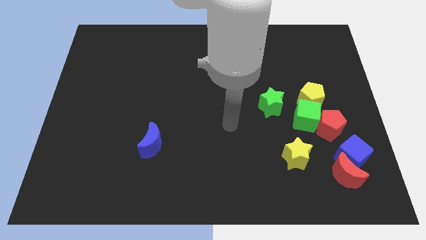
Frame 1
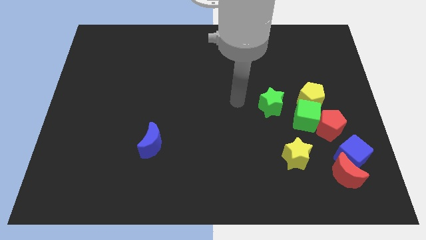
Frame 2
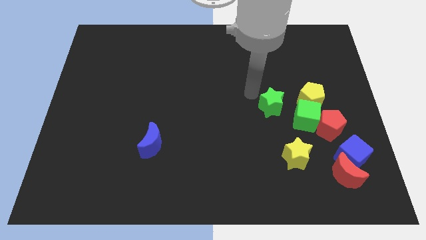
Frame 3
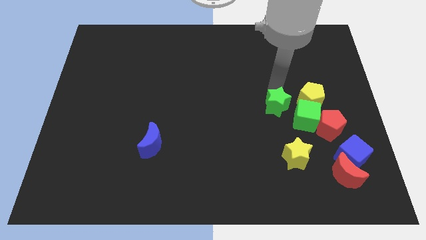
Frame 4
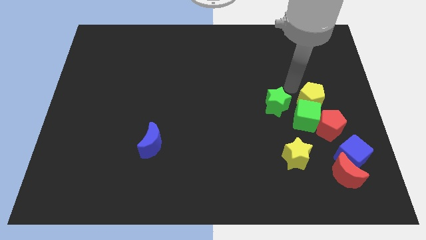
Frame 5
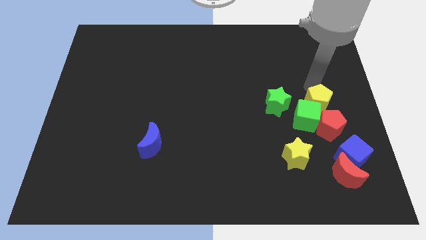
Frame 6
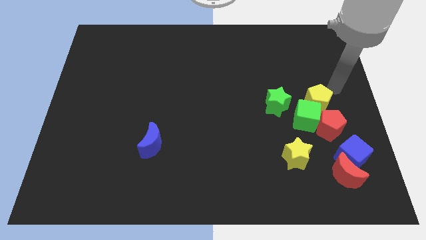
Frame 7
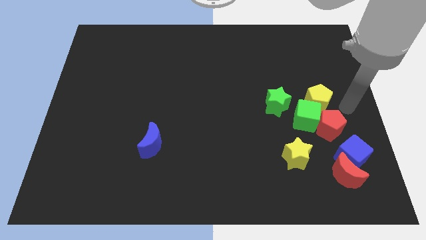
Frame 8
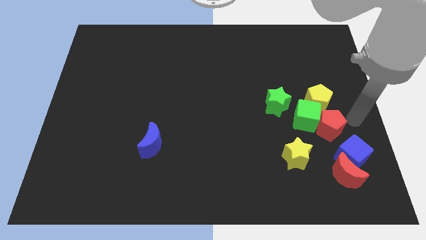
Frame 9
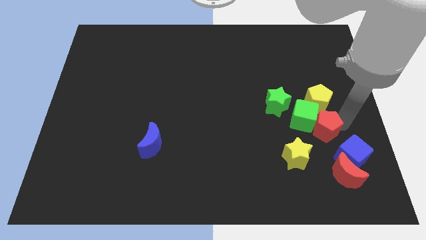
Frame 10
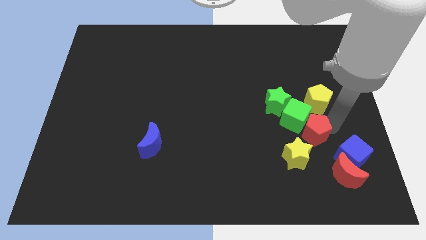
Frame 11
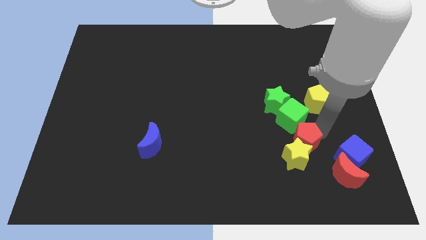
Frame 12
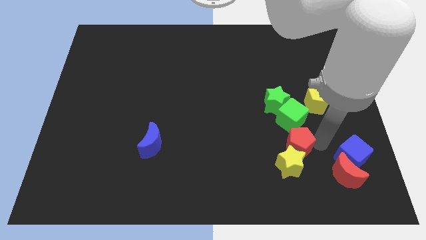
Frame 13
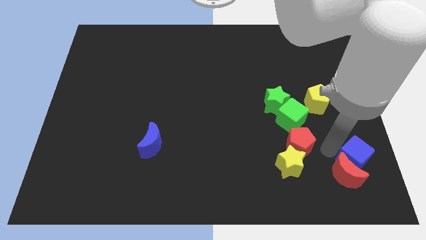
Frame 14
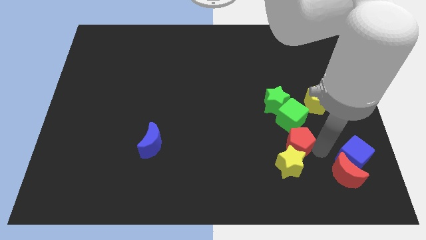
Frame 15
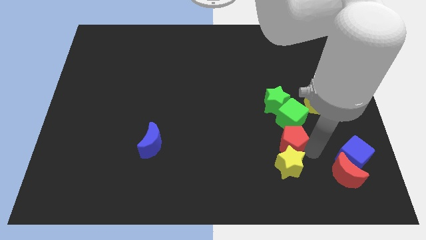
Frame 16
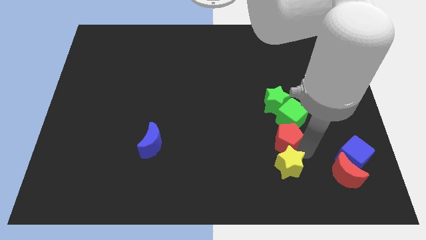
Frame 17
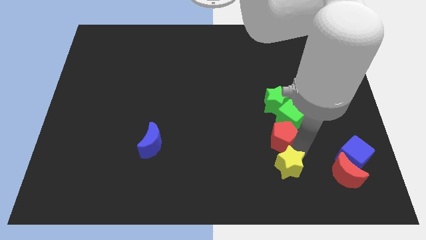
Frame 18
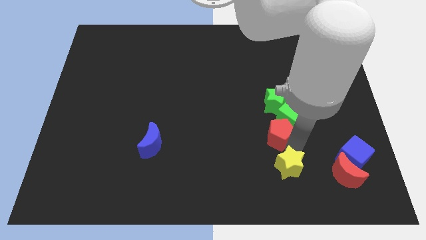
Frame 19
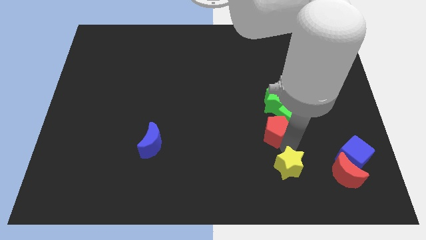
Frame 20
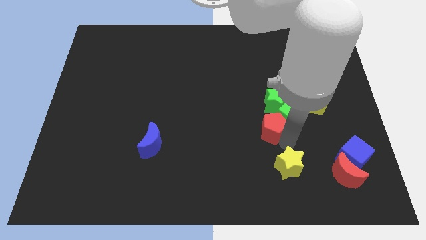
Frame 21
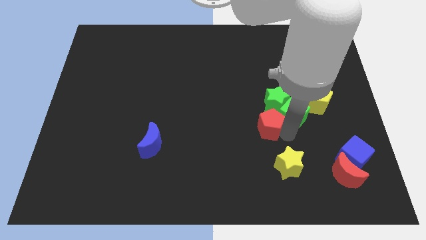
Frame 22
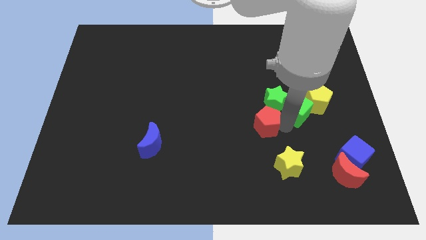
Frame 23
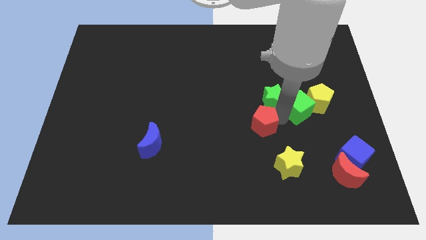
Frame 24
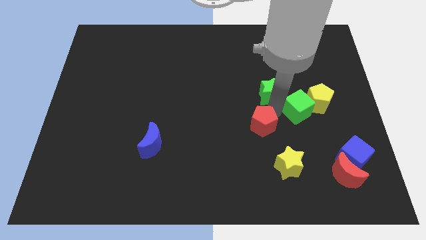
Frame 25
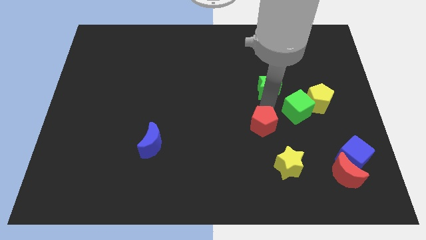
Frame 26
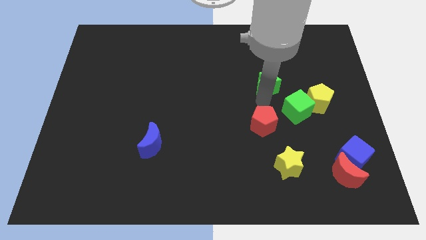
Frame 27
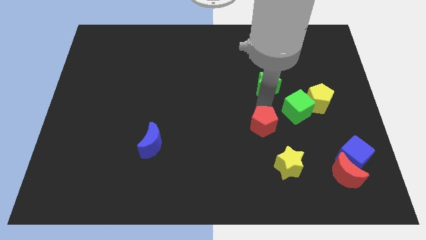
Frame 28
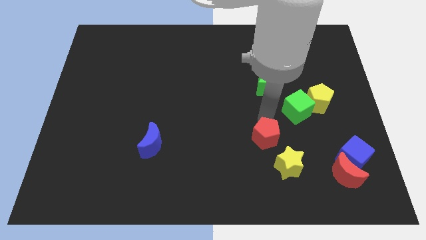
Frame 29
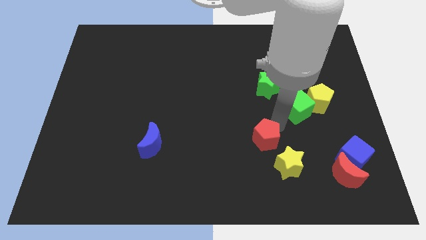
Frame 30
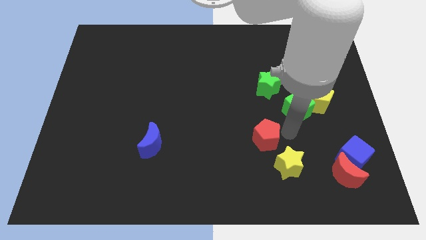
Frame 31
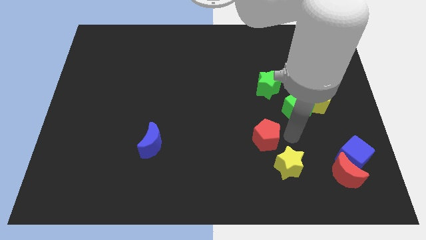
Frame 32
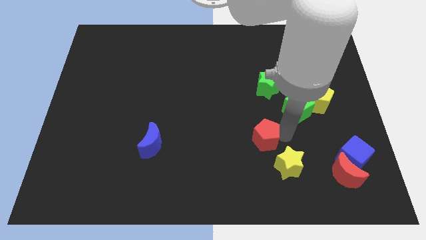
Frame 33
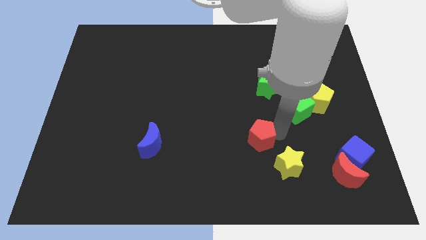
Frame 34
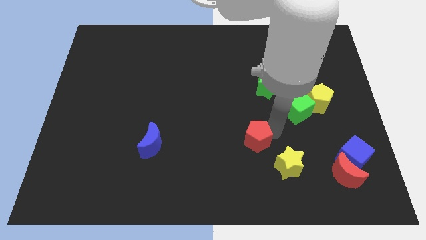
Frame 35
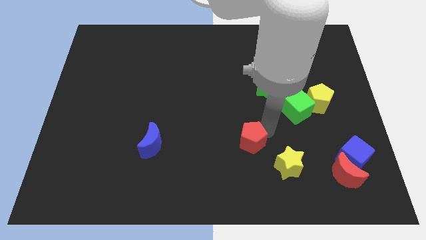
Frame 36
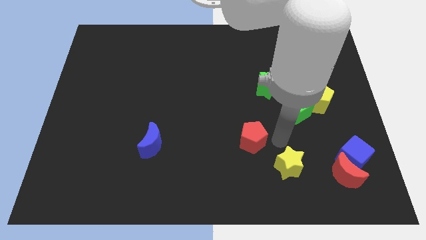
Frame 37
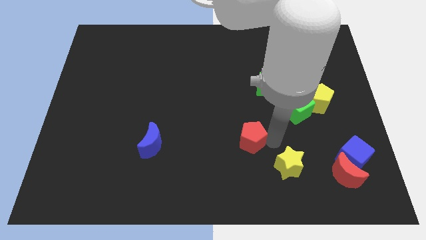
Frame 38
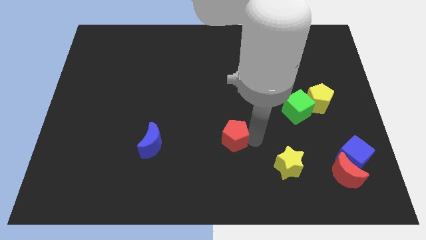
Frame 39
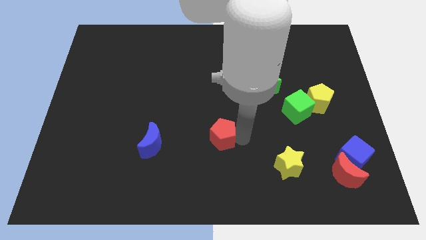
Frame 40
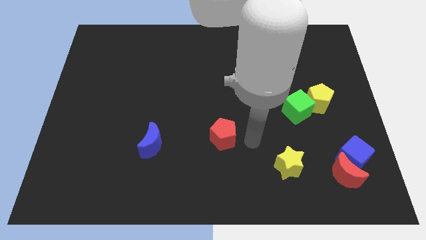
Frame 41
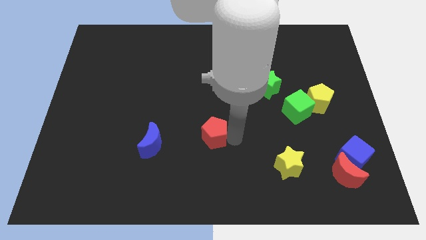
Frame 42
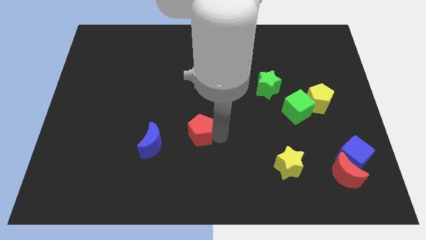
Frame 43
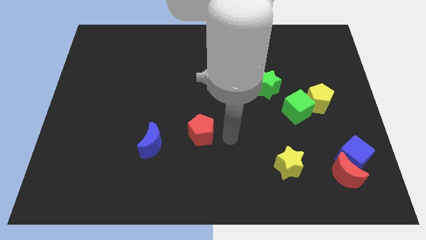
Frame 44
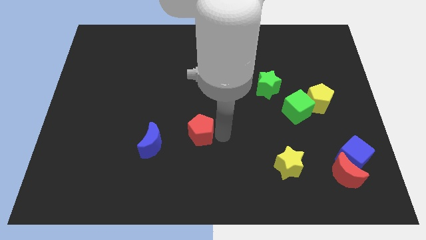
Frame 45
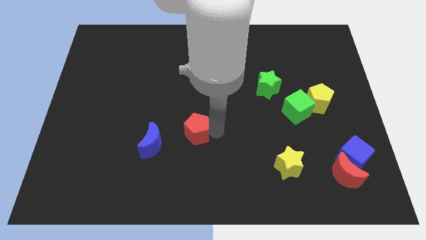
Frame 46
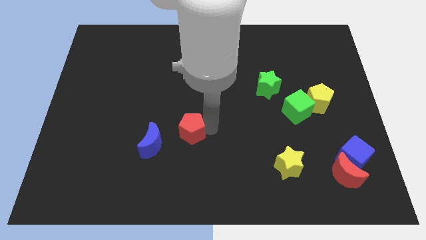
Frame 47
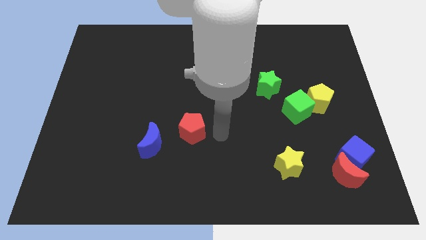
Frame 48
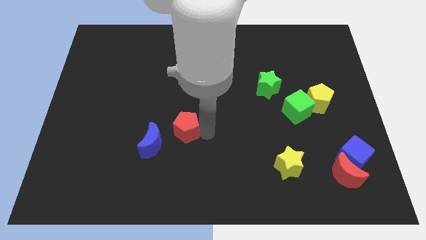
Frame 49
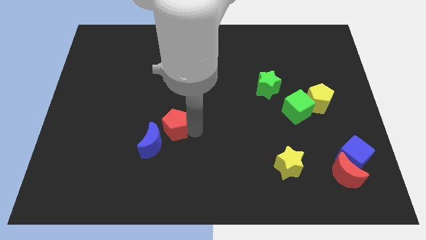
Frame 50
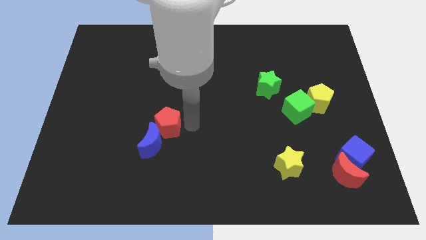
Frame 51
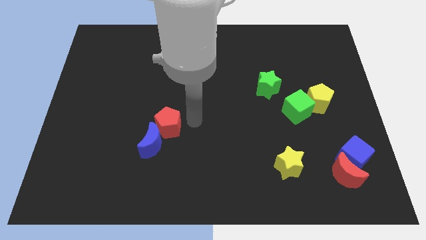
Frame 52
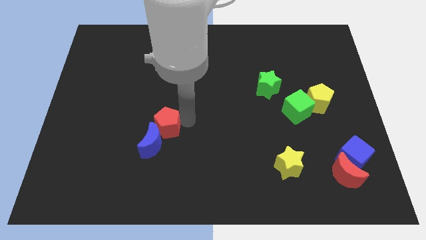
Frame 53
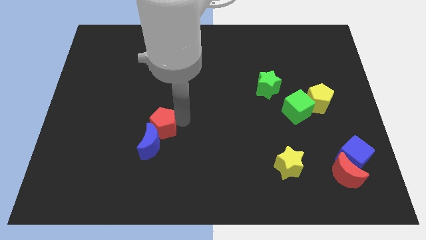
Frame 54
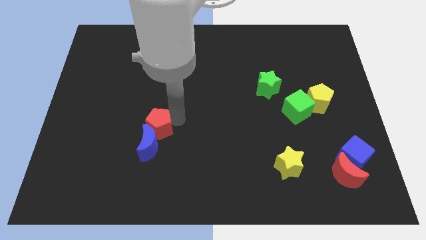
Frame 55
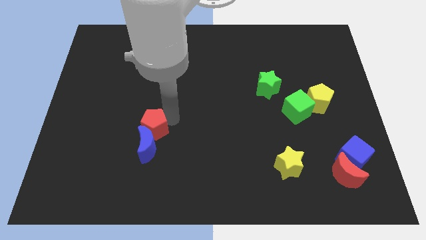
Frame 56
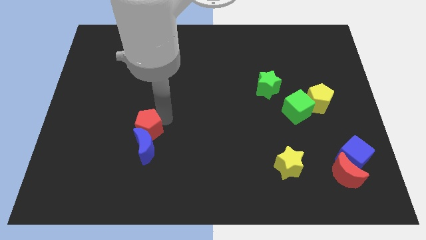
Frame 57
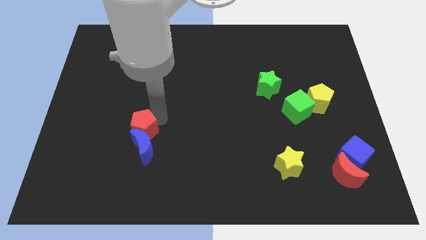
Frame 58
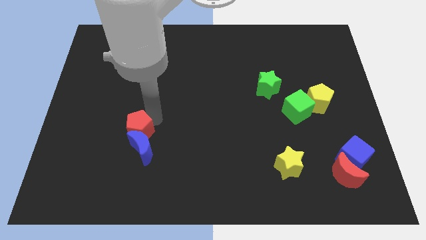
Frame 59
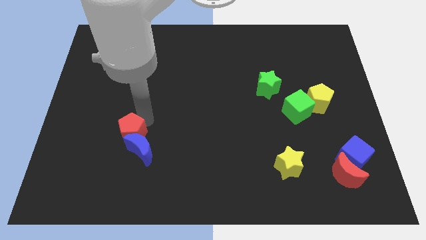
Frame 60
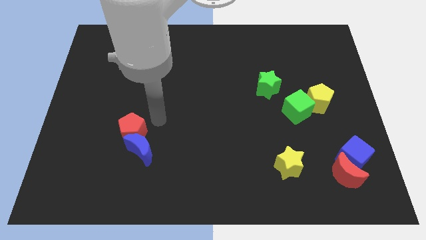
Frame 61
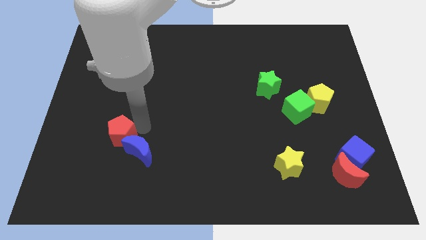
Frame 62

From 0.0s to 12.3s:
push the red pentagon just left of the blue moon

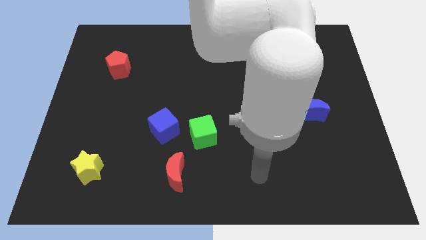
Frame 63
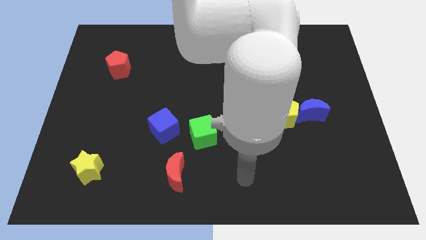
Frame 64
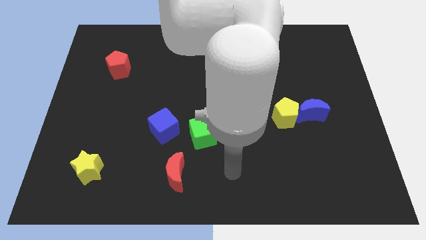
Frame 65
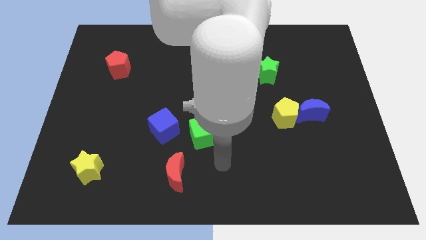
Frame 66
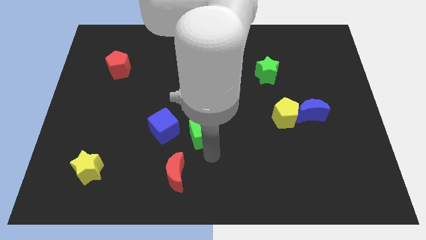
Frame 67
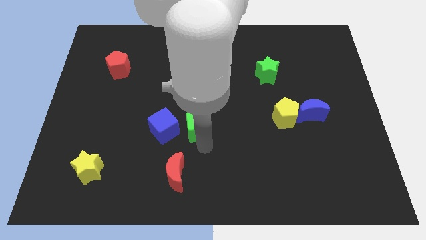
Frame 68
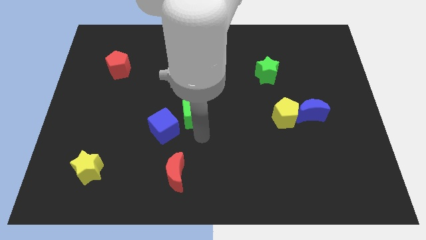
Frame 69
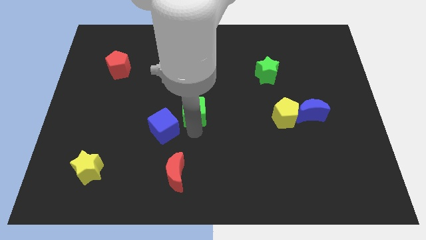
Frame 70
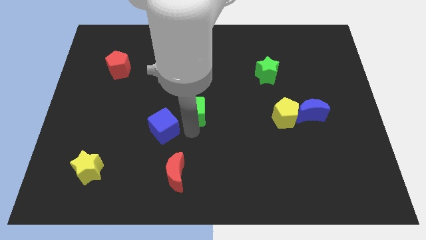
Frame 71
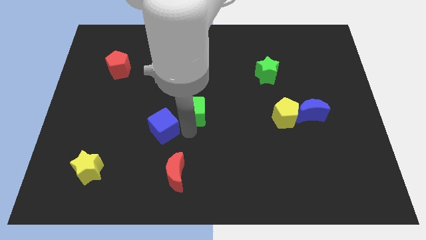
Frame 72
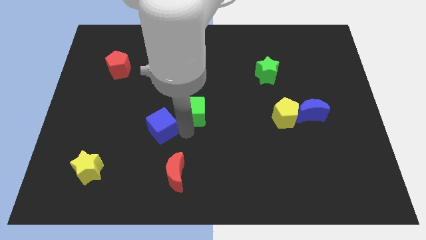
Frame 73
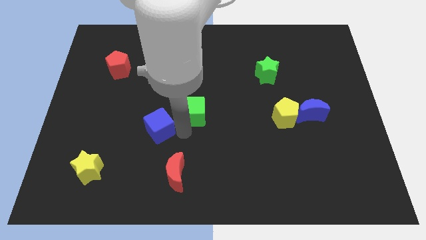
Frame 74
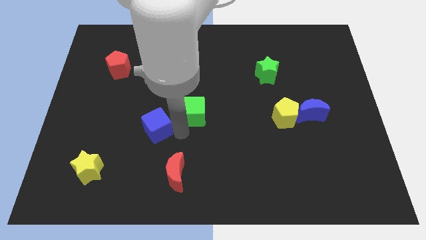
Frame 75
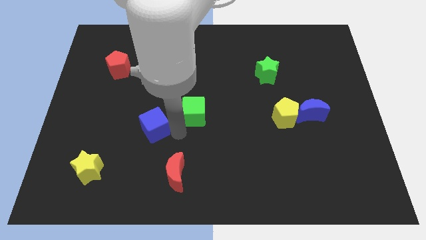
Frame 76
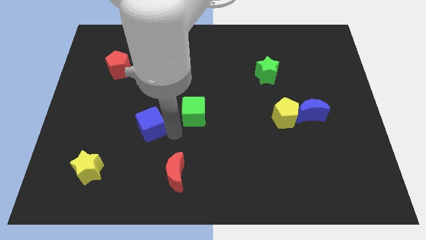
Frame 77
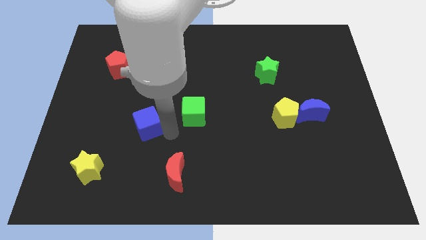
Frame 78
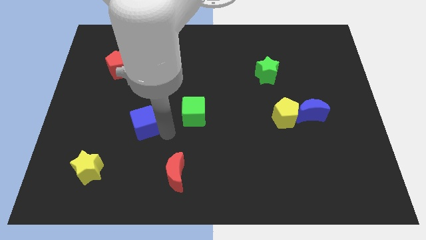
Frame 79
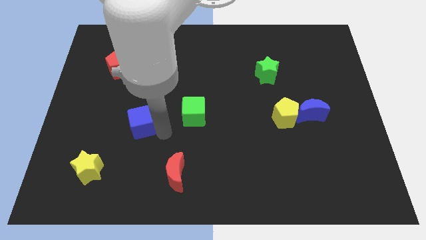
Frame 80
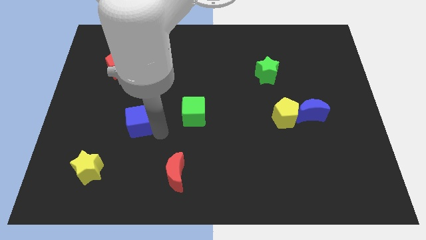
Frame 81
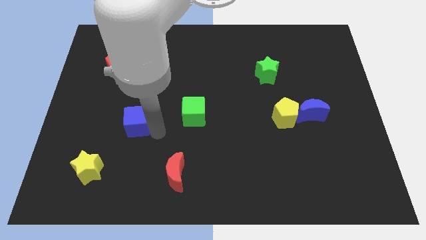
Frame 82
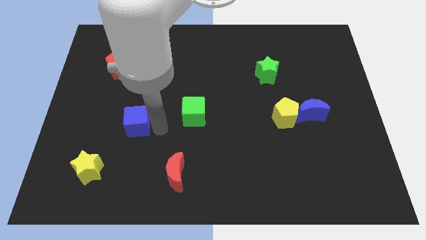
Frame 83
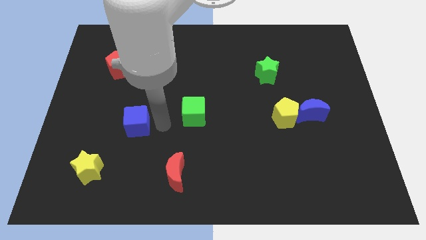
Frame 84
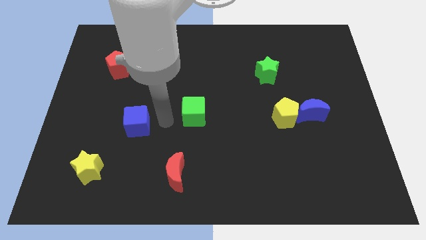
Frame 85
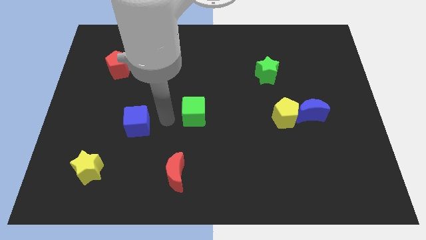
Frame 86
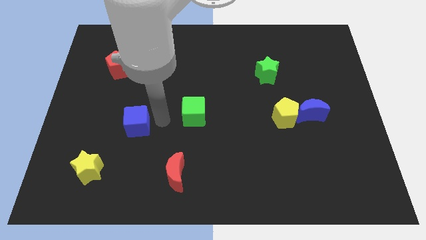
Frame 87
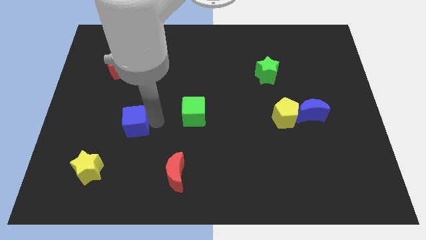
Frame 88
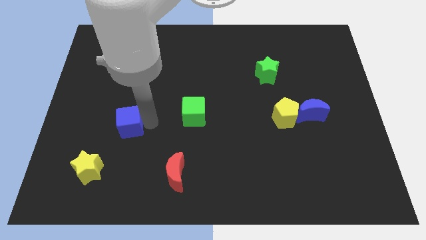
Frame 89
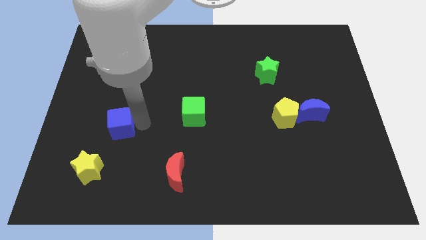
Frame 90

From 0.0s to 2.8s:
put the blue cube to the top of the yellow star
